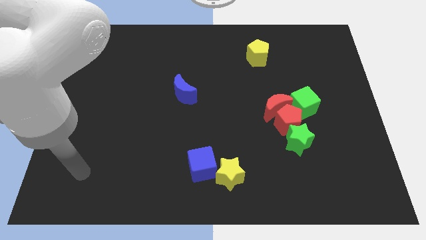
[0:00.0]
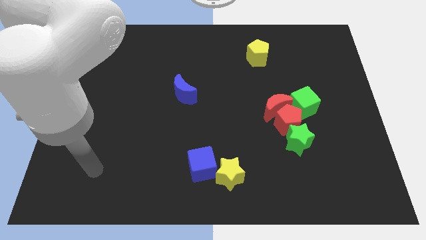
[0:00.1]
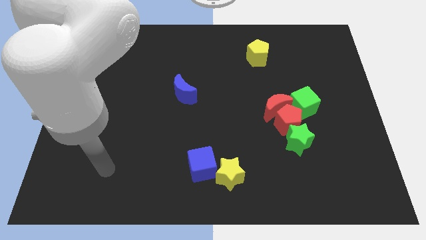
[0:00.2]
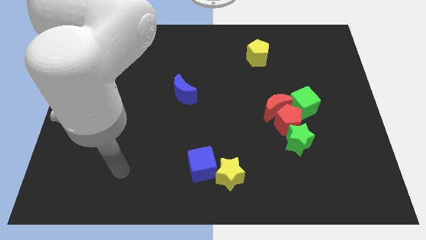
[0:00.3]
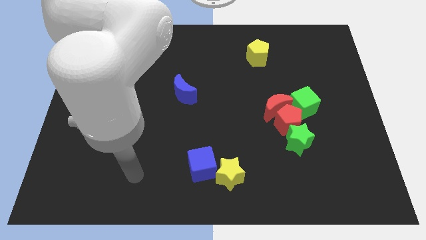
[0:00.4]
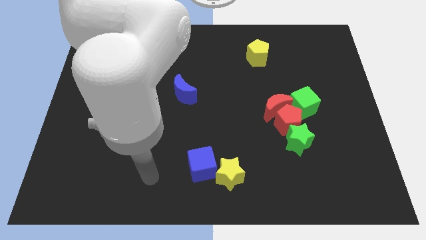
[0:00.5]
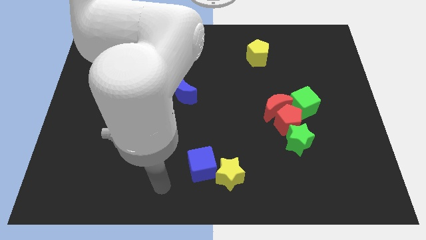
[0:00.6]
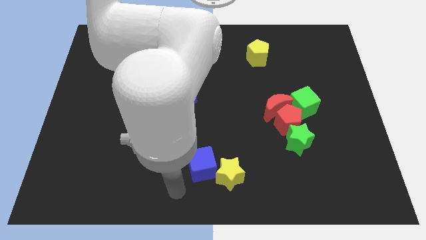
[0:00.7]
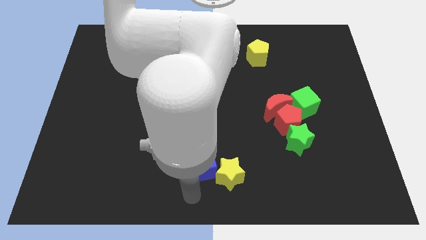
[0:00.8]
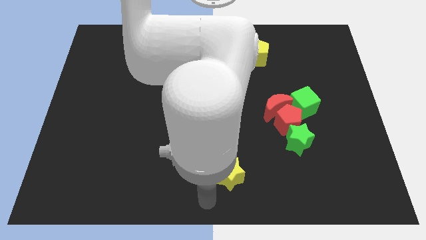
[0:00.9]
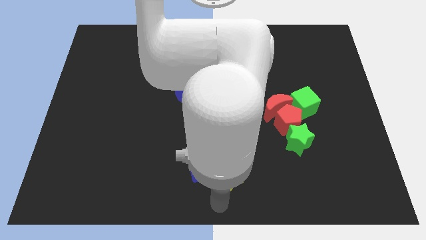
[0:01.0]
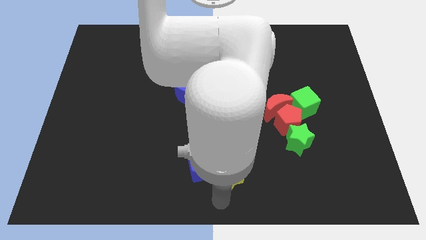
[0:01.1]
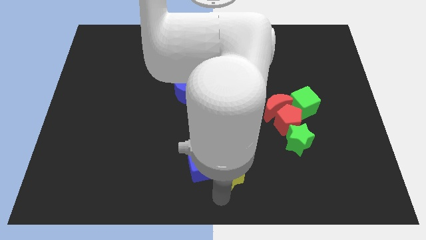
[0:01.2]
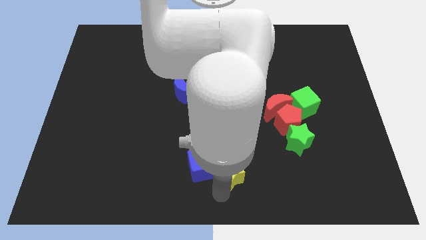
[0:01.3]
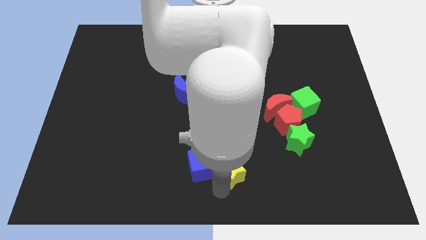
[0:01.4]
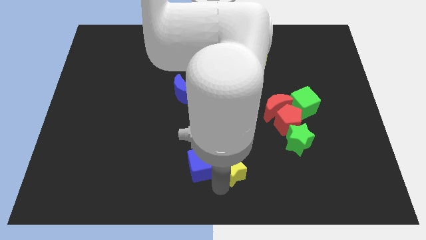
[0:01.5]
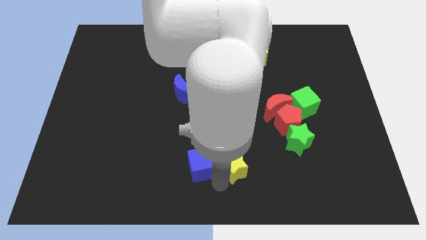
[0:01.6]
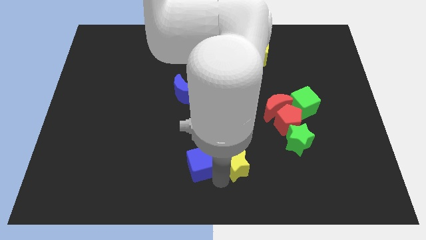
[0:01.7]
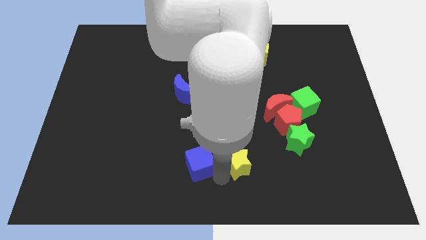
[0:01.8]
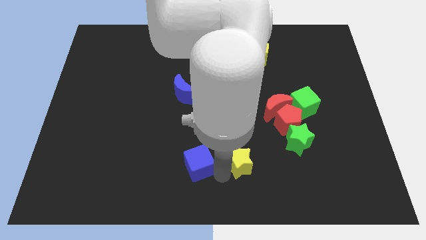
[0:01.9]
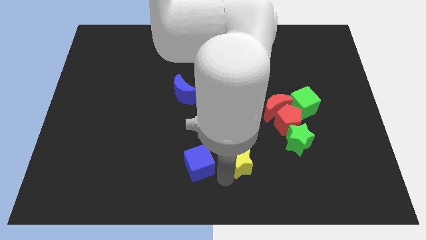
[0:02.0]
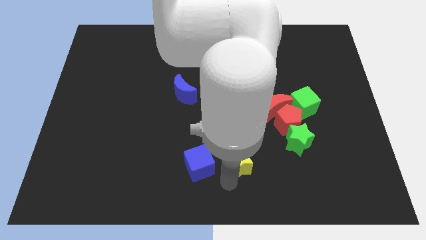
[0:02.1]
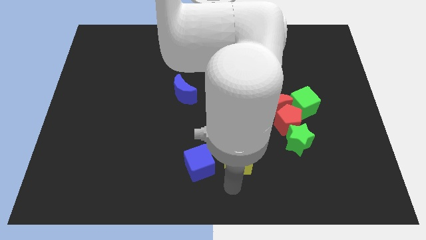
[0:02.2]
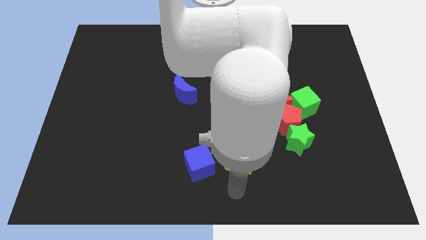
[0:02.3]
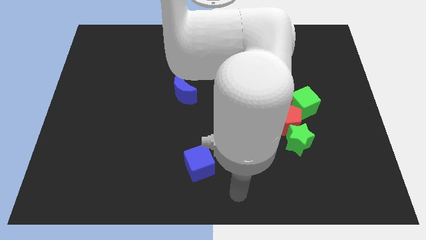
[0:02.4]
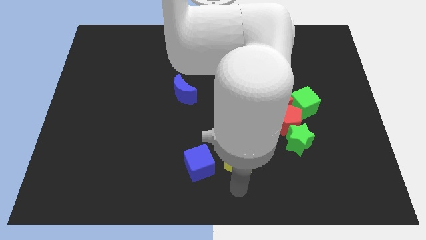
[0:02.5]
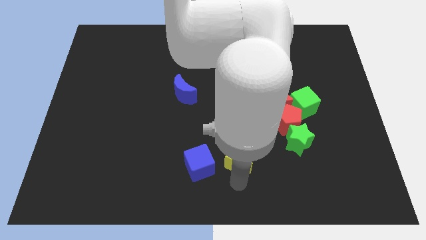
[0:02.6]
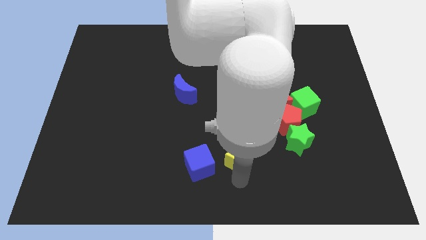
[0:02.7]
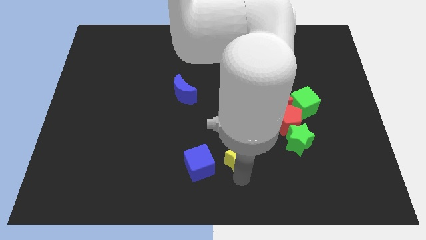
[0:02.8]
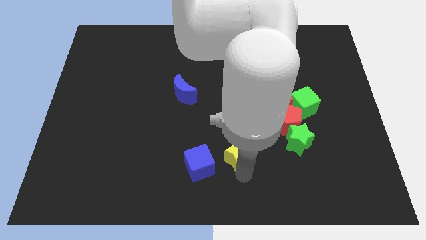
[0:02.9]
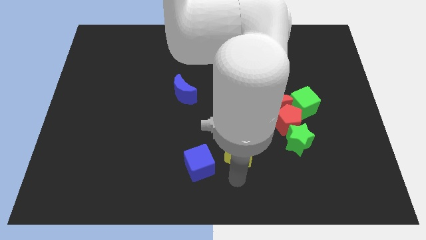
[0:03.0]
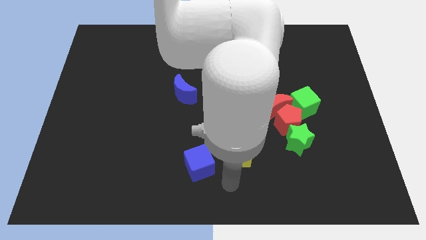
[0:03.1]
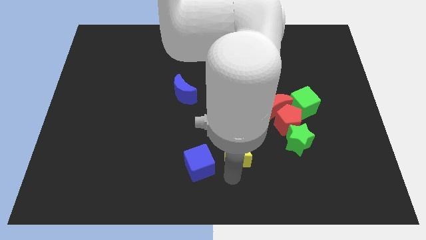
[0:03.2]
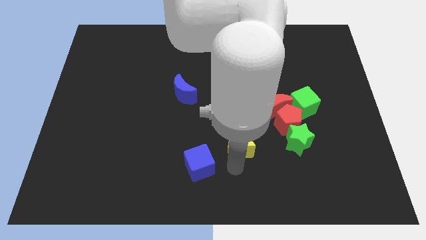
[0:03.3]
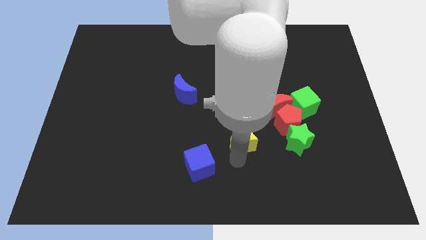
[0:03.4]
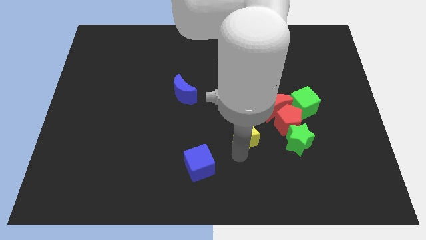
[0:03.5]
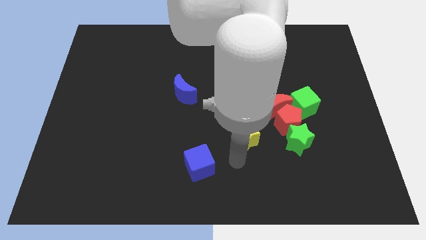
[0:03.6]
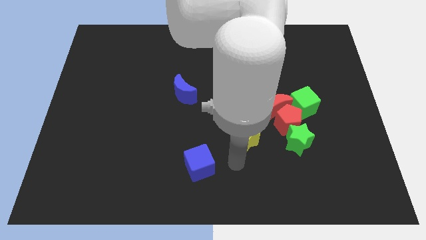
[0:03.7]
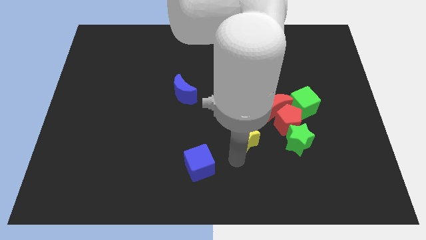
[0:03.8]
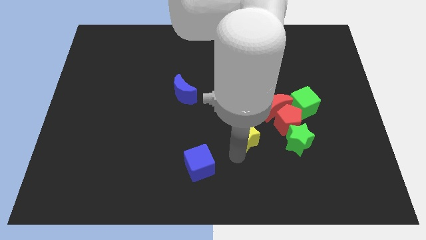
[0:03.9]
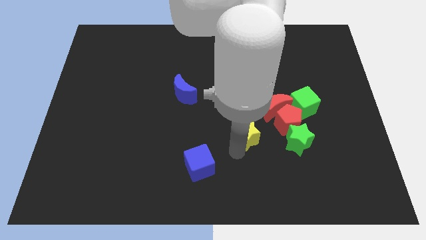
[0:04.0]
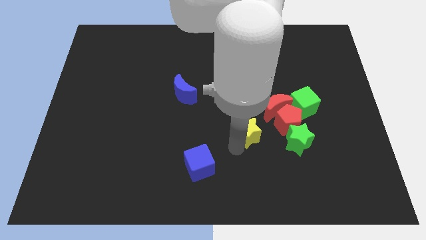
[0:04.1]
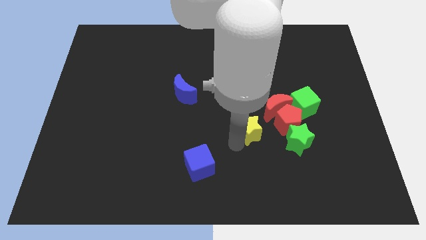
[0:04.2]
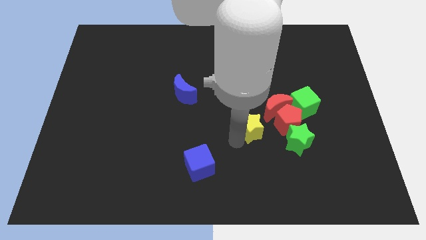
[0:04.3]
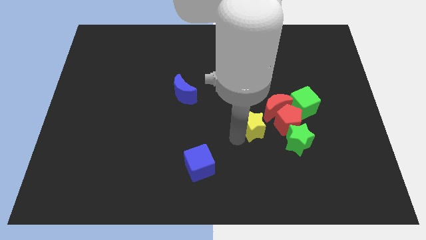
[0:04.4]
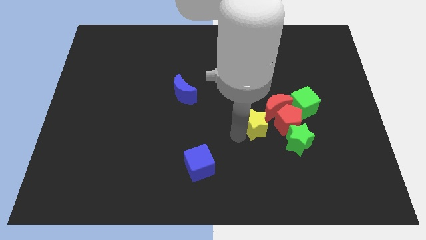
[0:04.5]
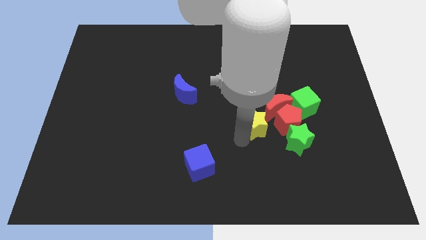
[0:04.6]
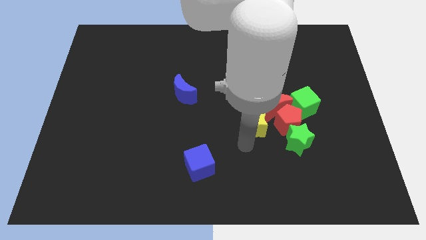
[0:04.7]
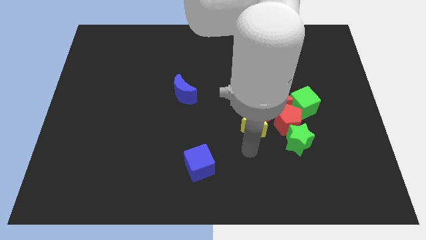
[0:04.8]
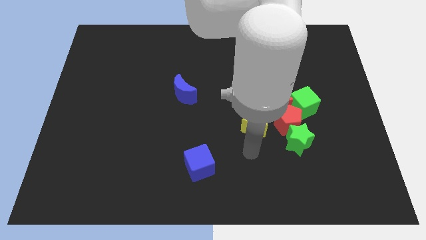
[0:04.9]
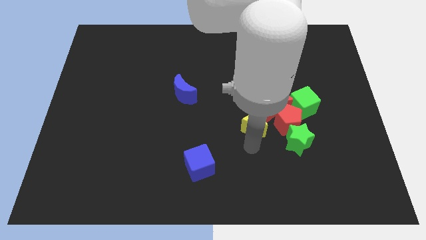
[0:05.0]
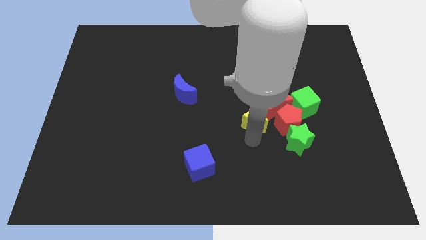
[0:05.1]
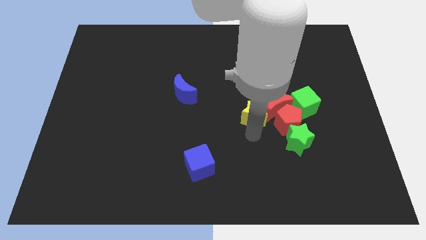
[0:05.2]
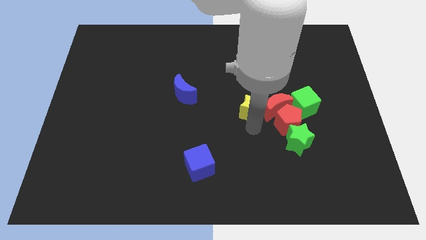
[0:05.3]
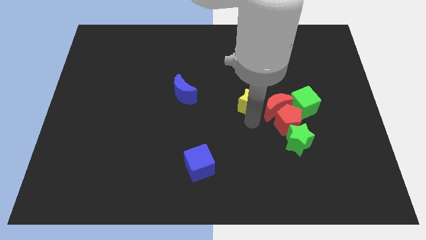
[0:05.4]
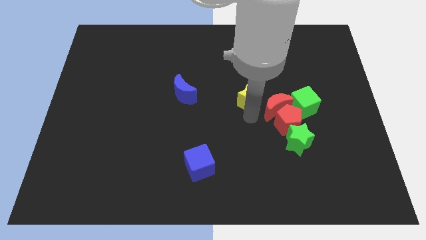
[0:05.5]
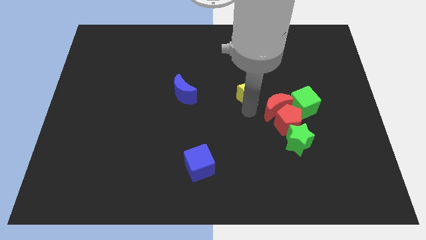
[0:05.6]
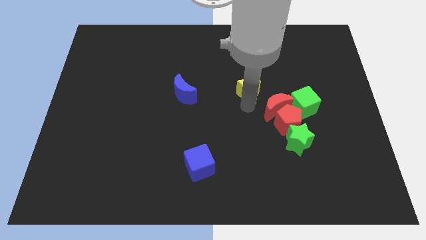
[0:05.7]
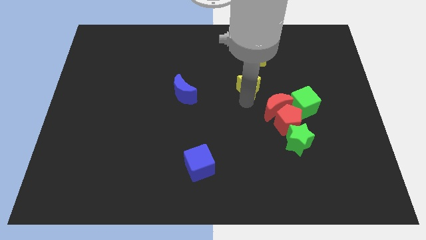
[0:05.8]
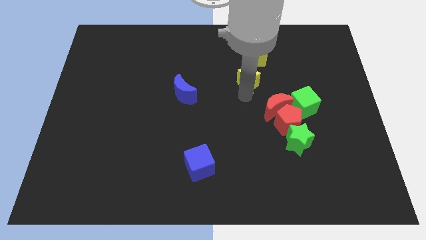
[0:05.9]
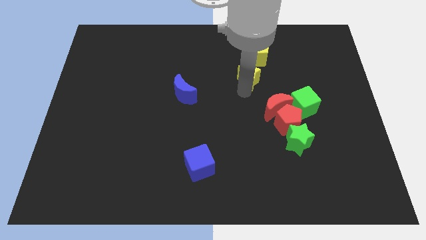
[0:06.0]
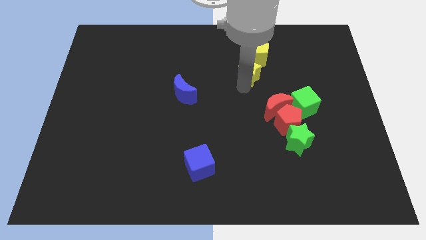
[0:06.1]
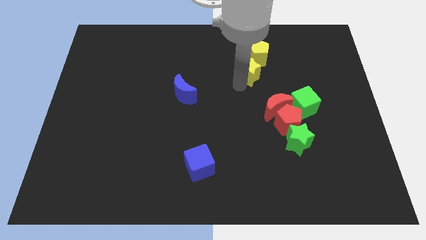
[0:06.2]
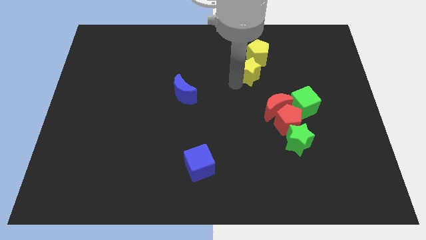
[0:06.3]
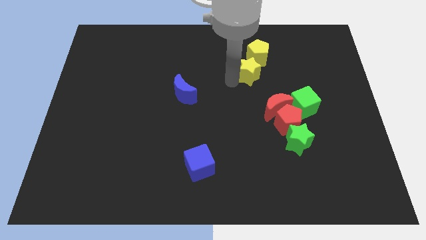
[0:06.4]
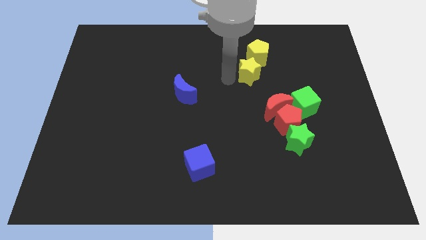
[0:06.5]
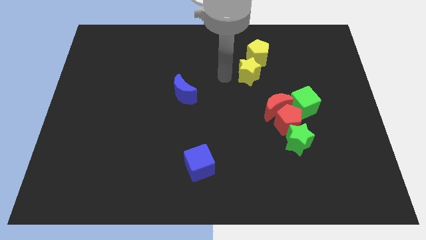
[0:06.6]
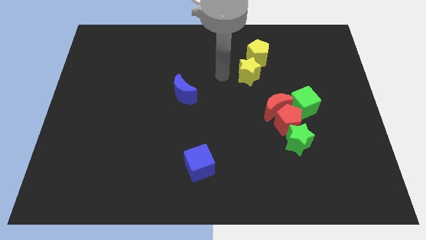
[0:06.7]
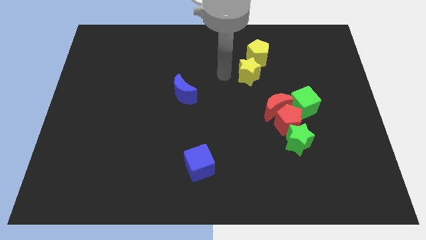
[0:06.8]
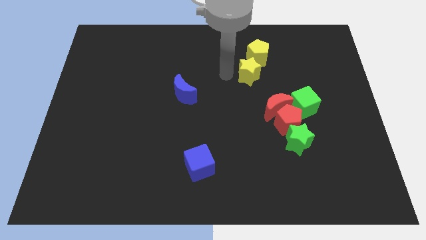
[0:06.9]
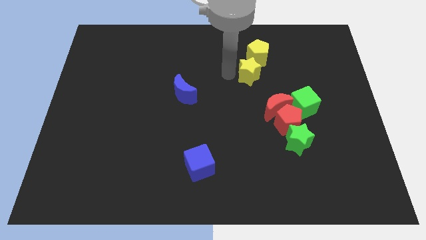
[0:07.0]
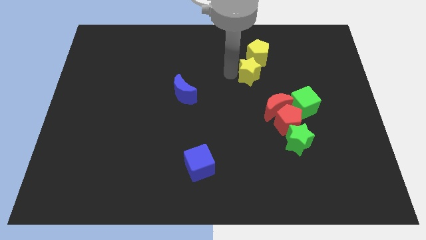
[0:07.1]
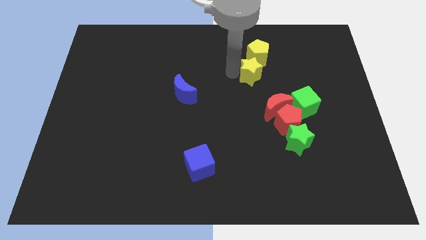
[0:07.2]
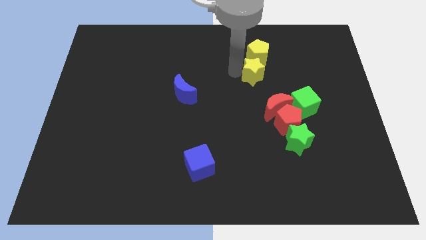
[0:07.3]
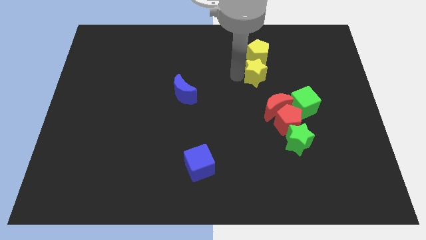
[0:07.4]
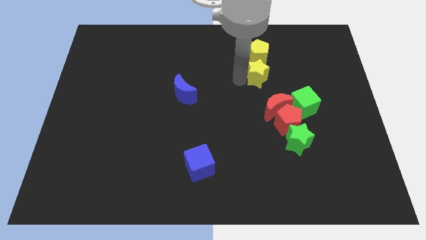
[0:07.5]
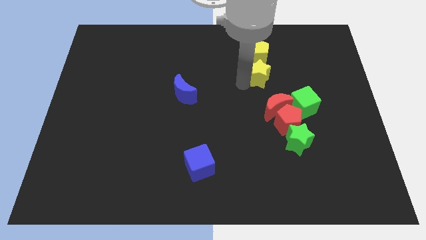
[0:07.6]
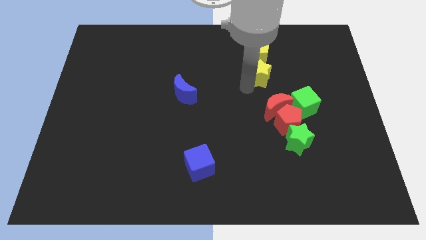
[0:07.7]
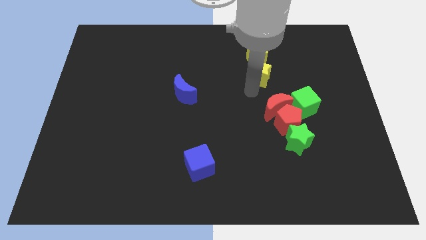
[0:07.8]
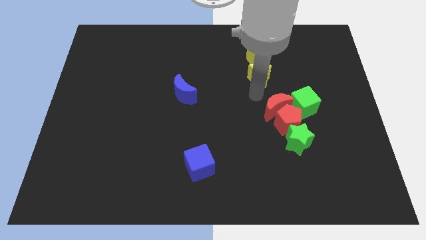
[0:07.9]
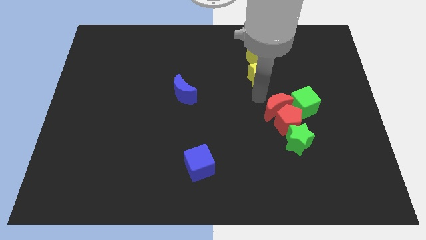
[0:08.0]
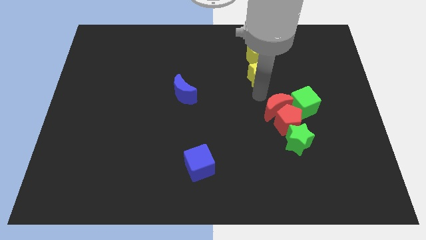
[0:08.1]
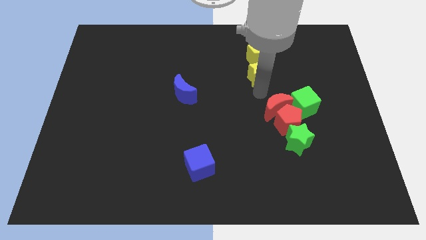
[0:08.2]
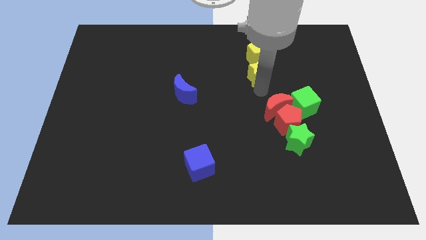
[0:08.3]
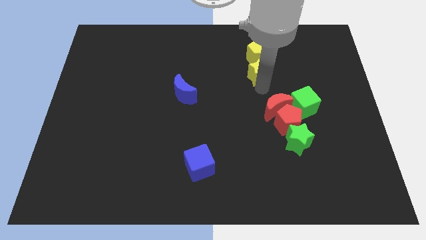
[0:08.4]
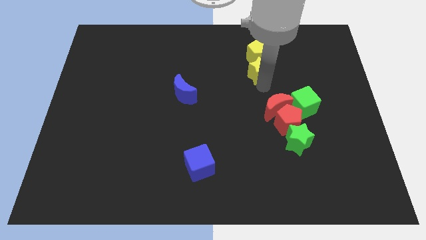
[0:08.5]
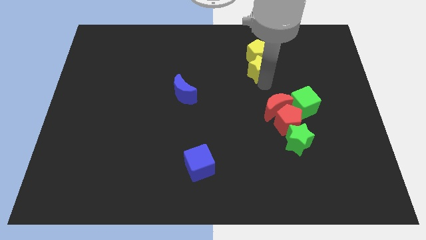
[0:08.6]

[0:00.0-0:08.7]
move the yellow star next to the yellow pentagon
